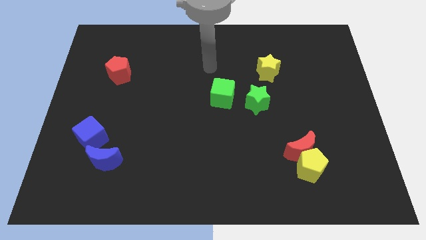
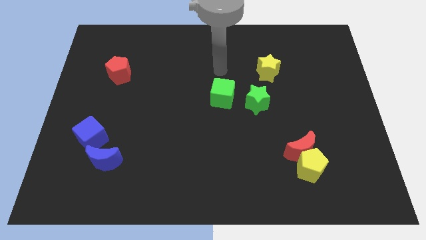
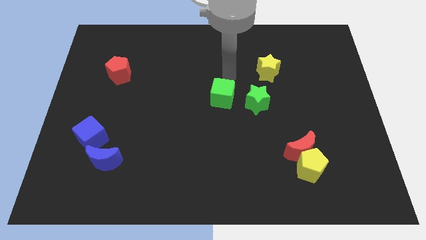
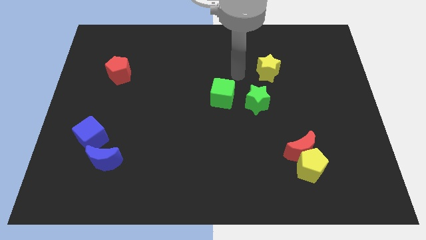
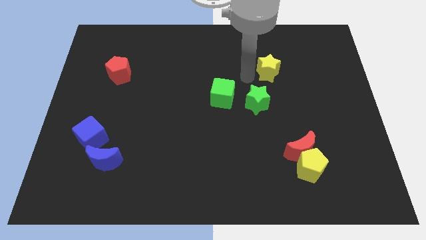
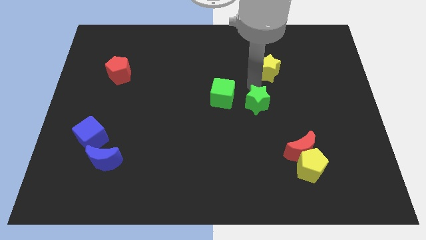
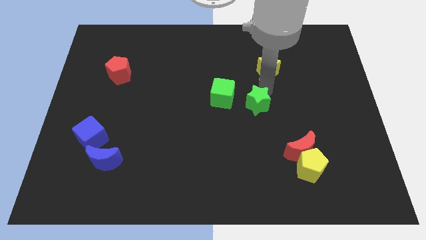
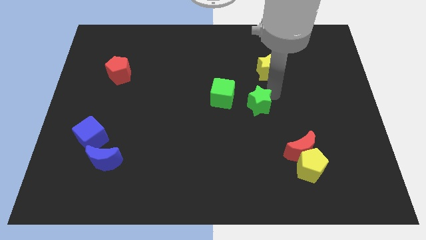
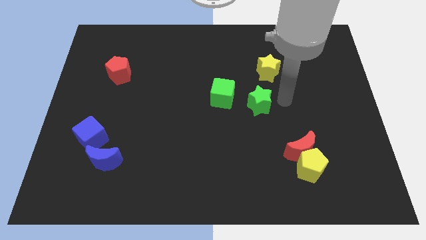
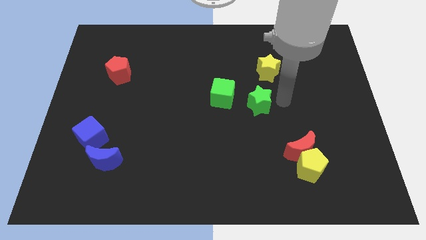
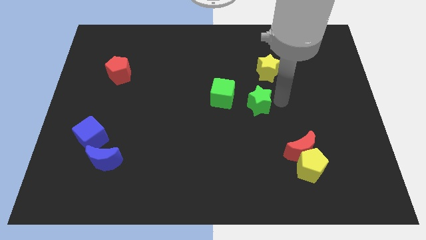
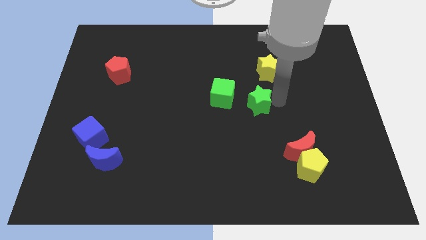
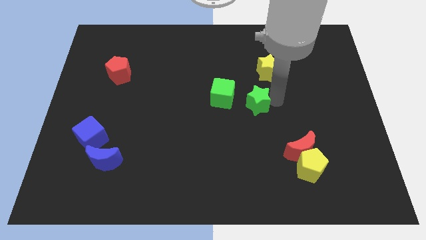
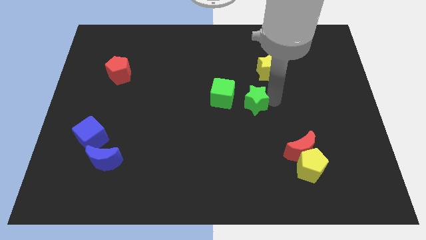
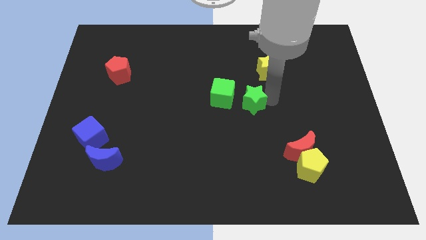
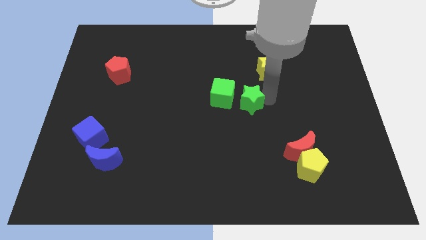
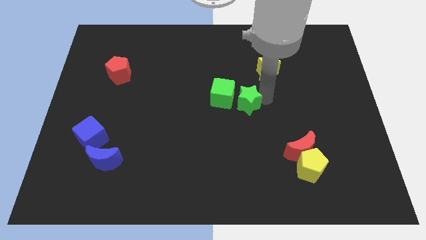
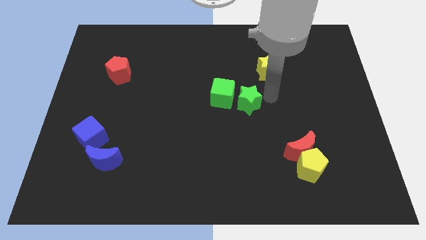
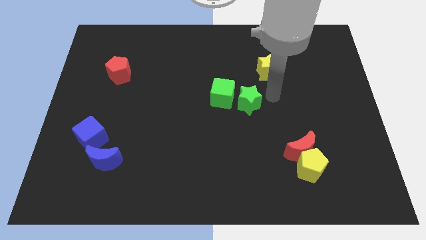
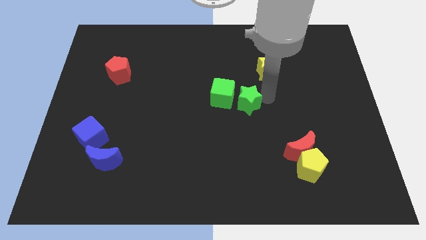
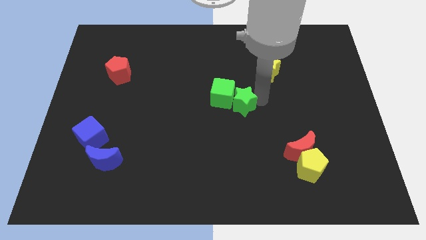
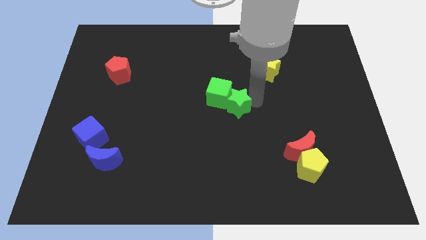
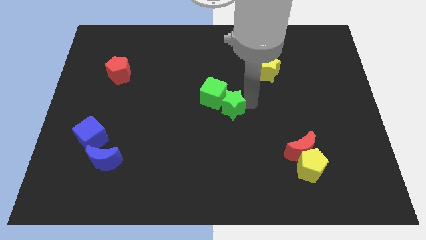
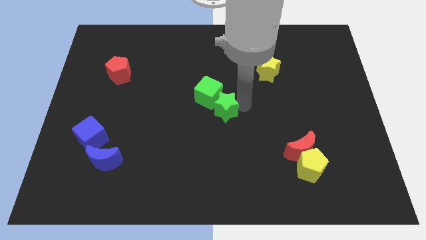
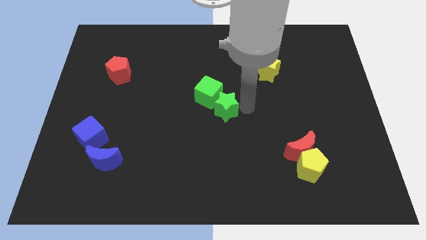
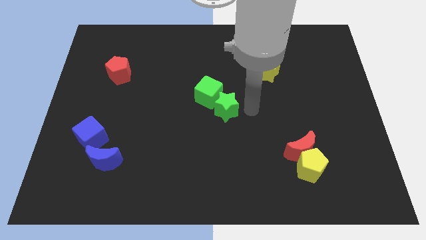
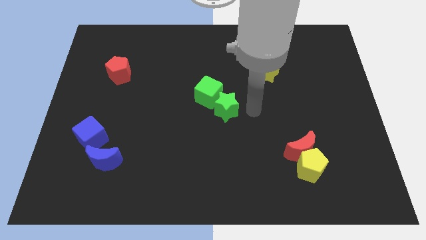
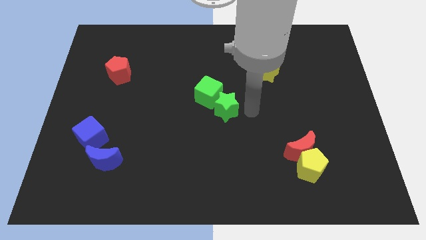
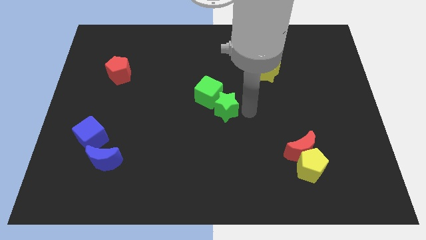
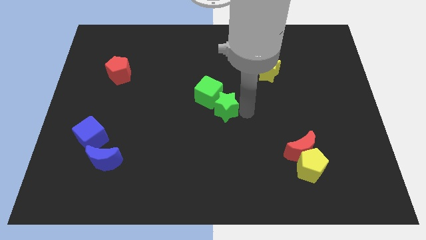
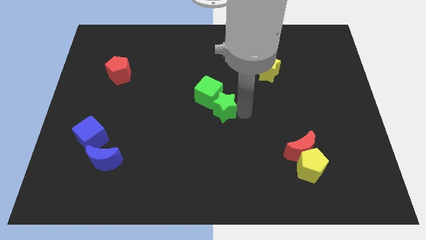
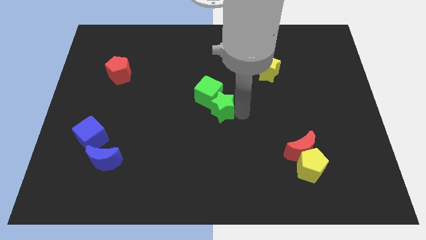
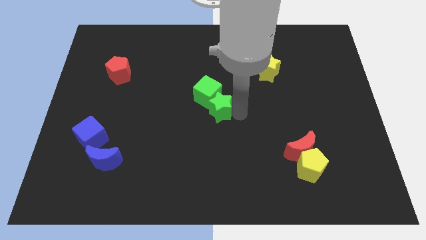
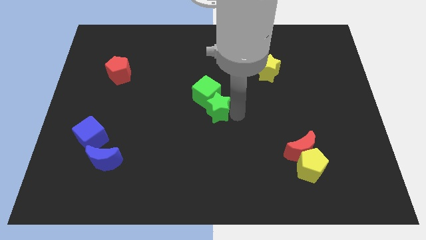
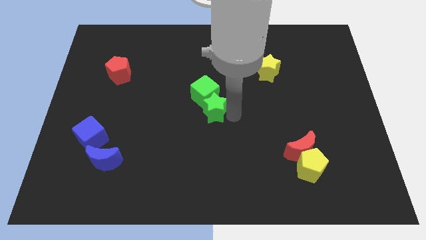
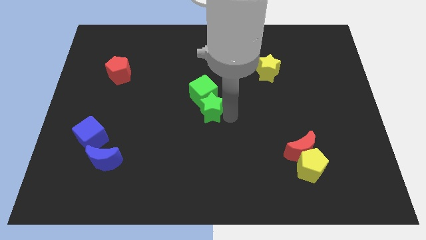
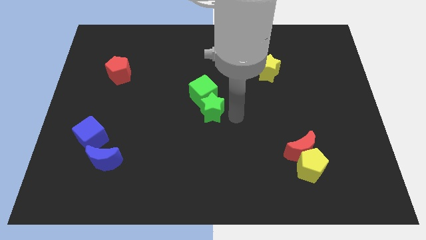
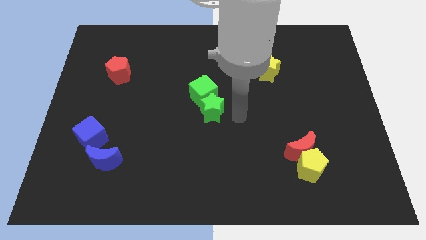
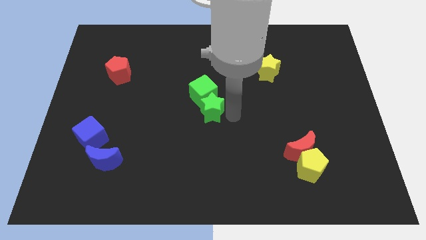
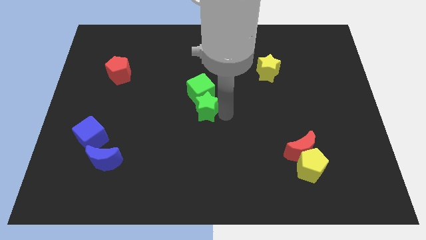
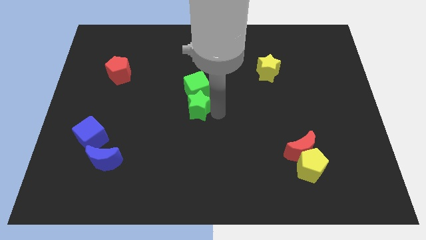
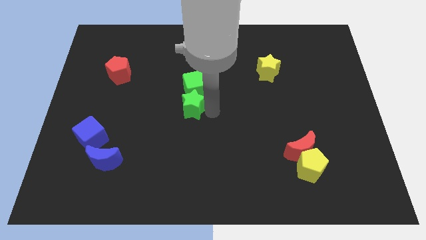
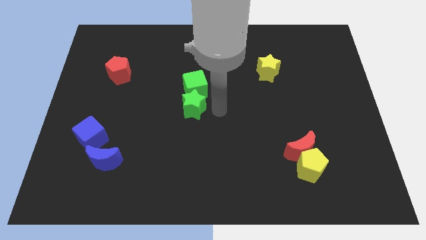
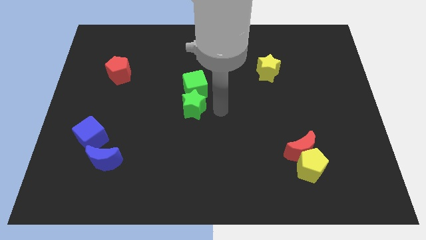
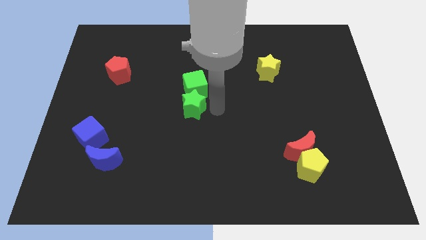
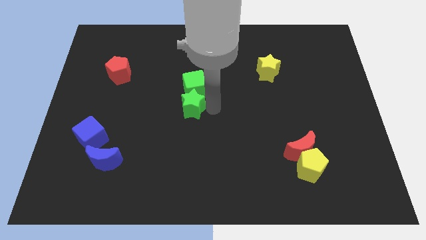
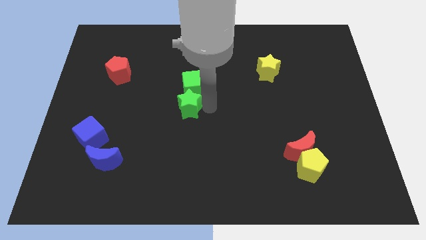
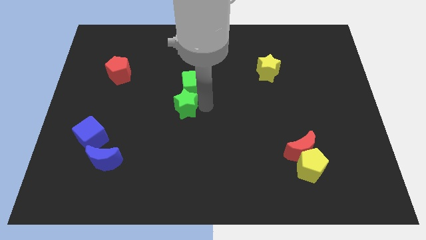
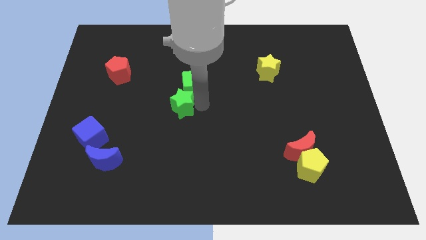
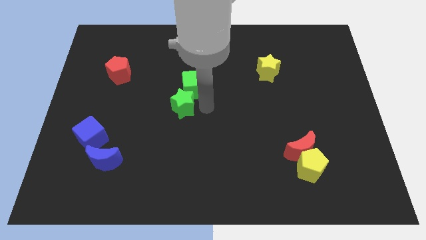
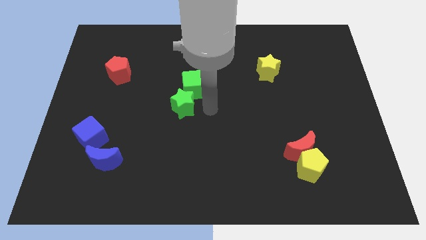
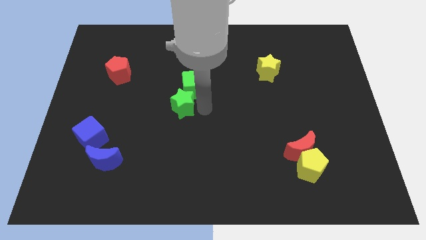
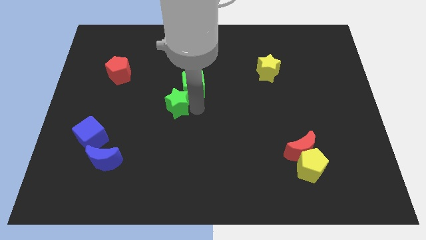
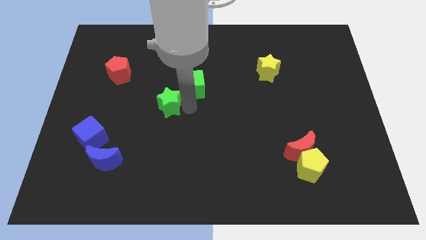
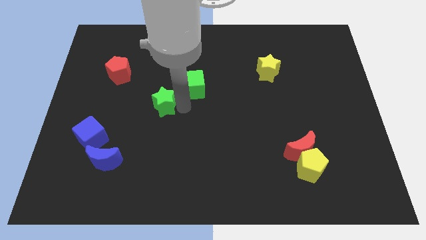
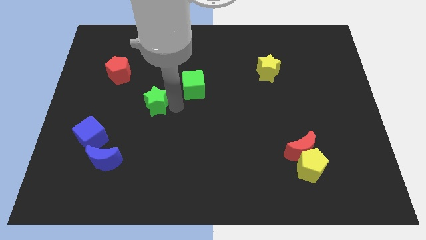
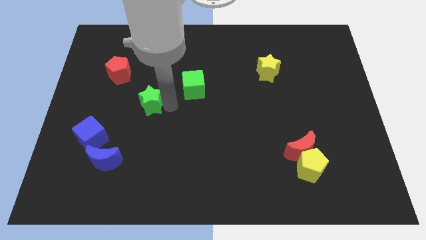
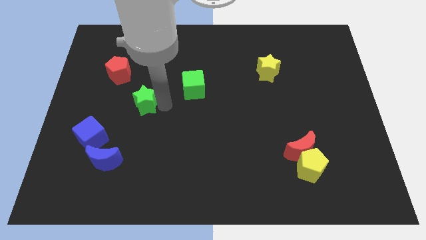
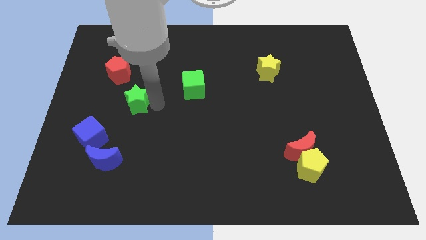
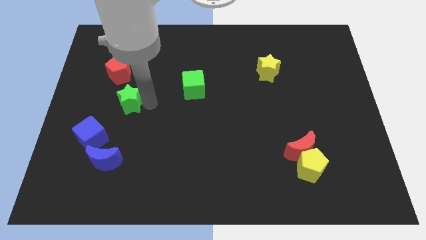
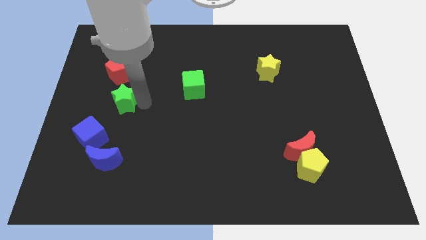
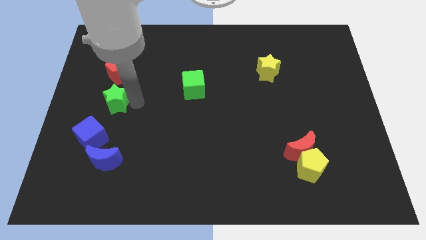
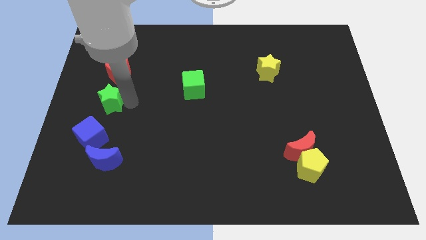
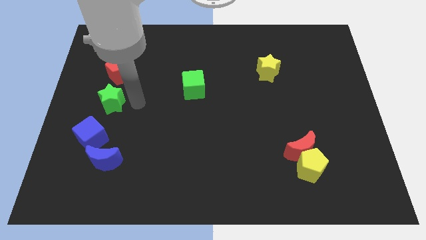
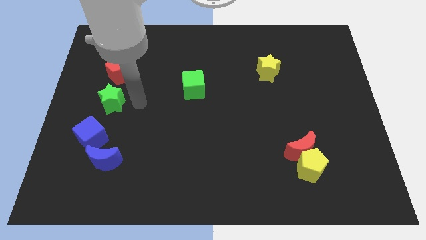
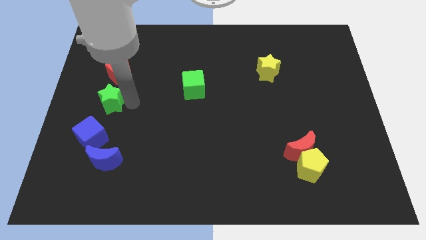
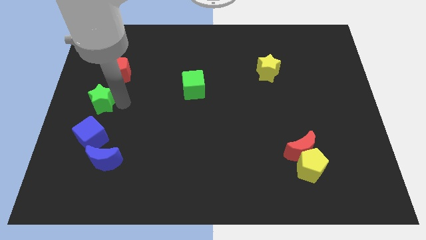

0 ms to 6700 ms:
slide the green star to the left side

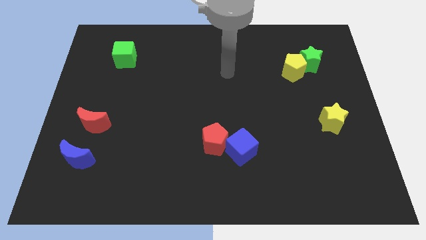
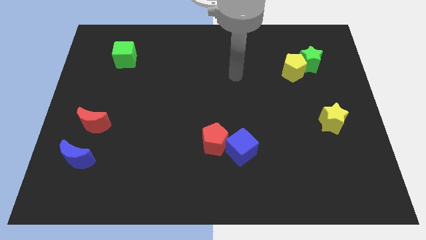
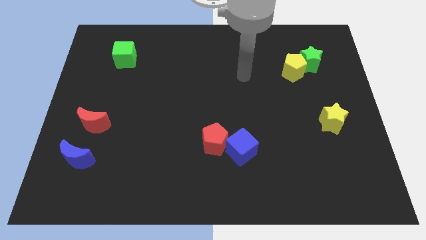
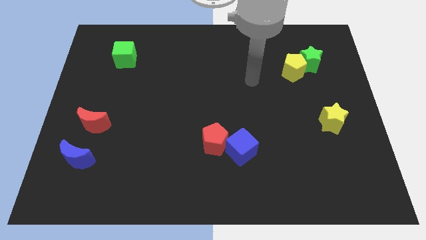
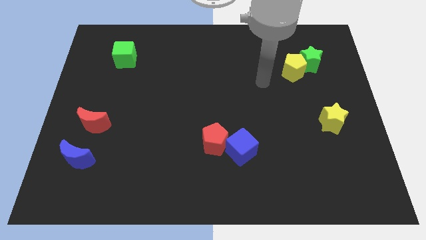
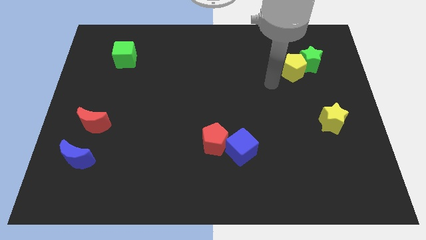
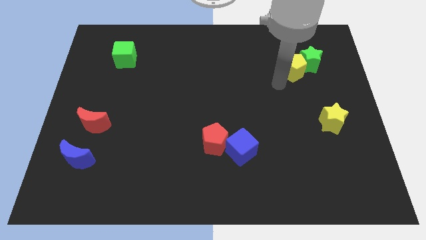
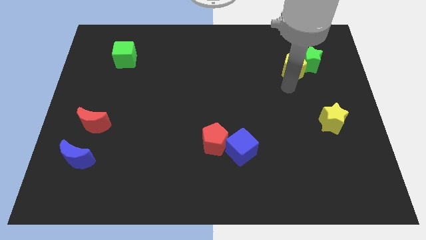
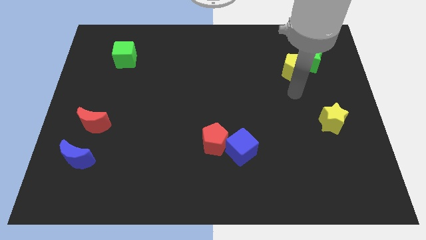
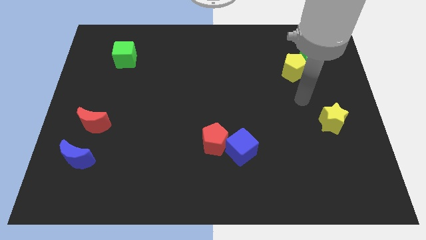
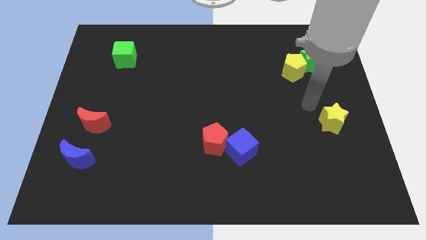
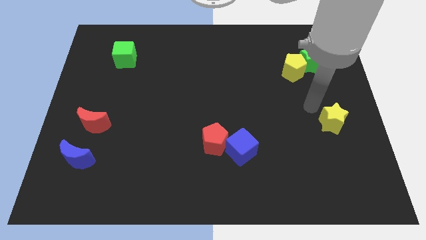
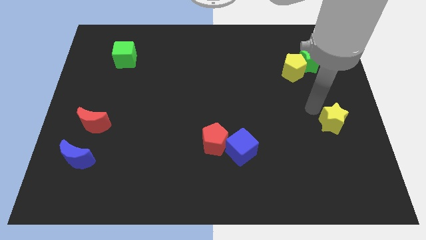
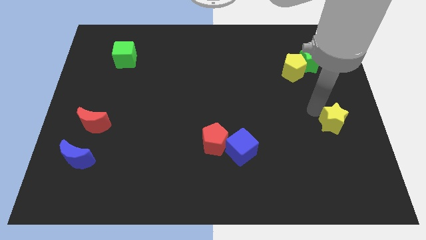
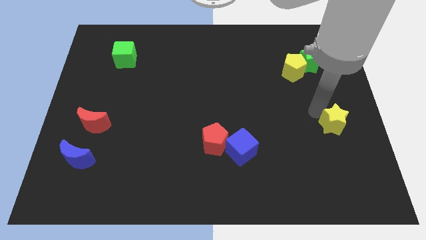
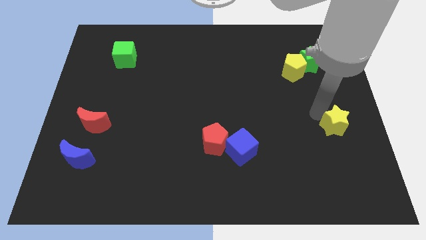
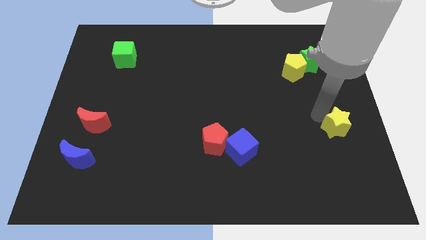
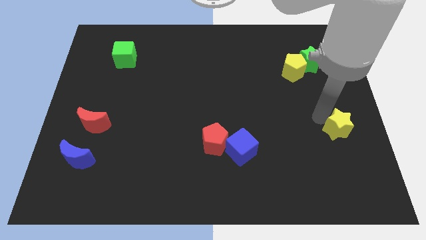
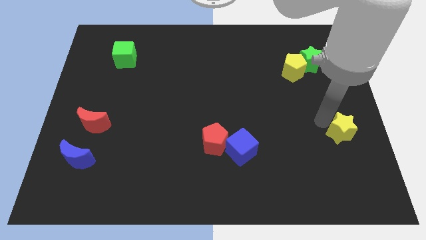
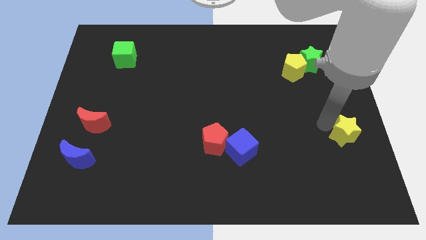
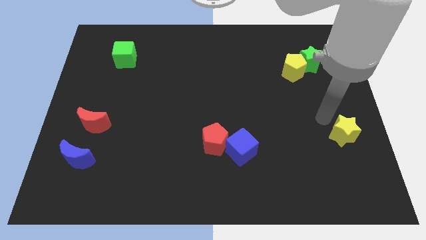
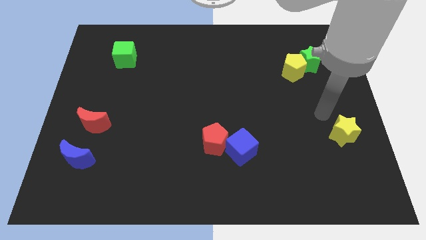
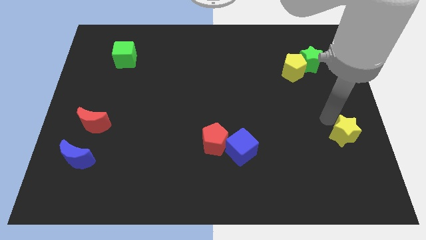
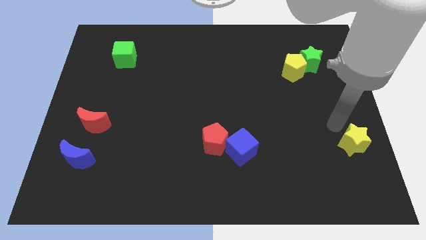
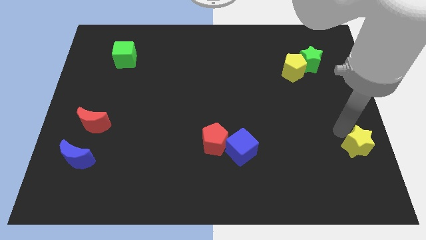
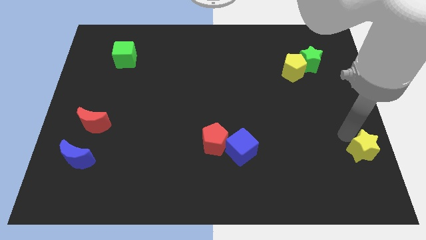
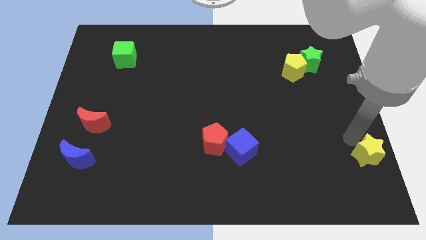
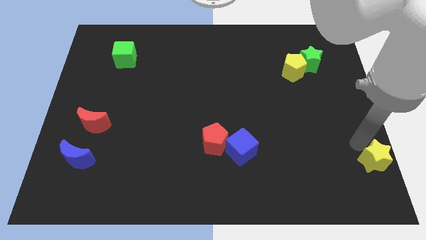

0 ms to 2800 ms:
move the yellow star to the bottom right corner
